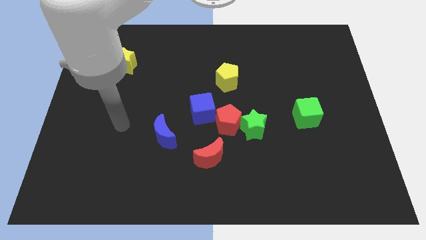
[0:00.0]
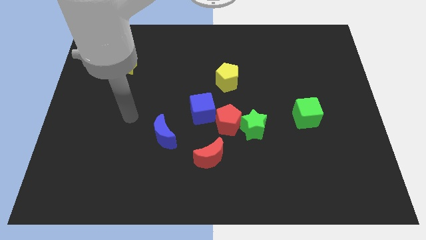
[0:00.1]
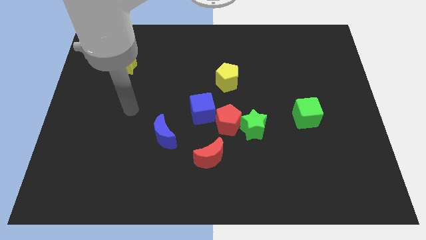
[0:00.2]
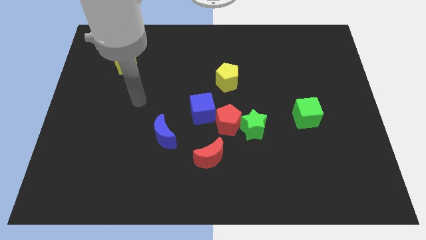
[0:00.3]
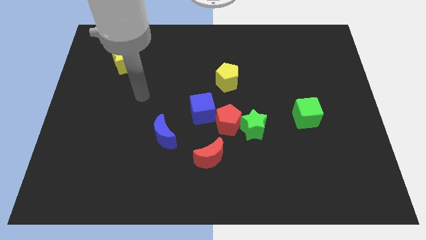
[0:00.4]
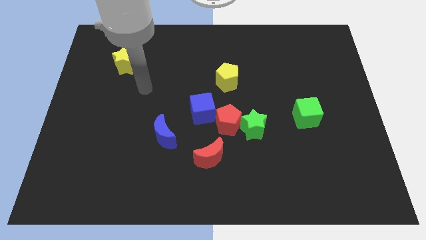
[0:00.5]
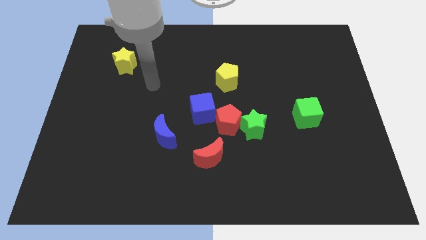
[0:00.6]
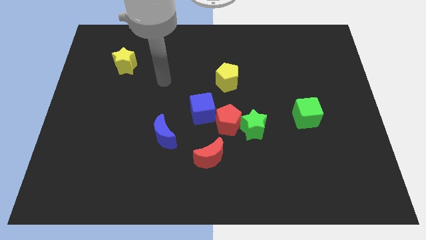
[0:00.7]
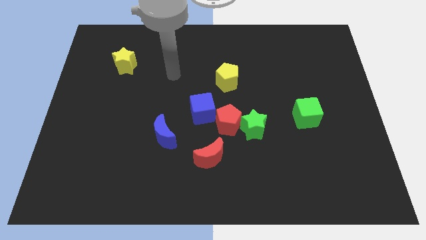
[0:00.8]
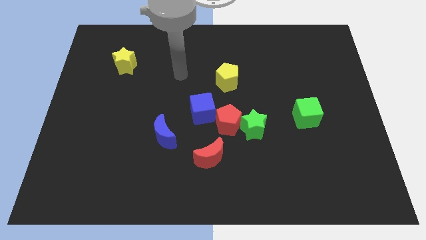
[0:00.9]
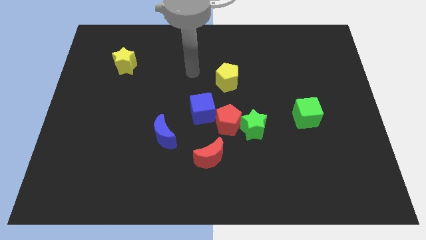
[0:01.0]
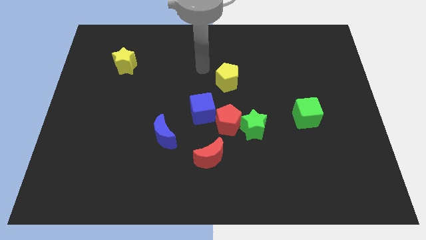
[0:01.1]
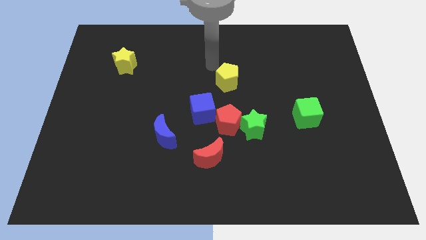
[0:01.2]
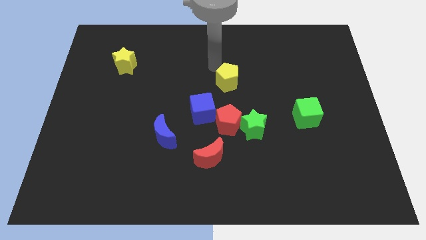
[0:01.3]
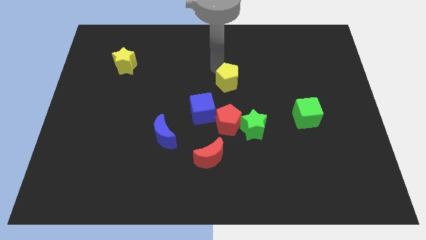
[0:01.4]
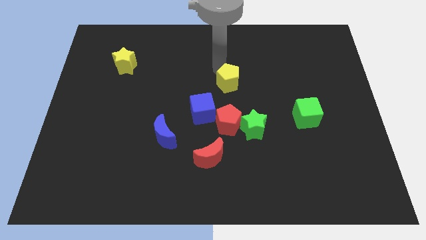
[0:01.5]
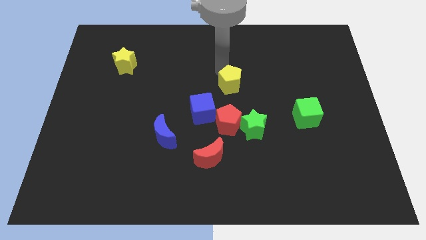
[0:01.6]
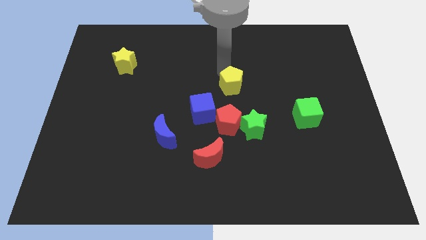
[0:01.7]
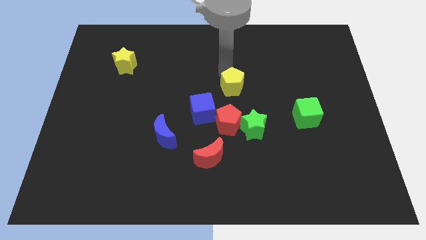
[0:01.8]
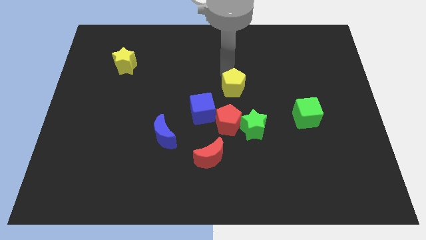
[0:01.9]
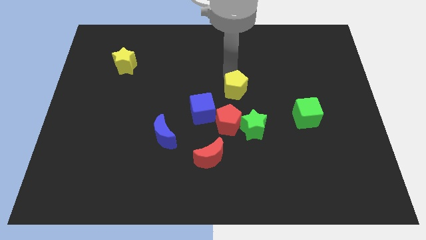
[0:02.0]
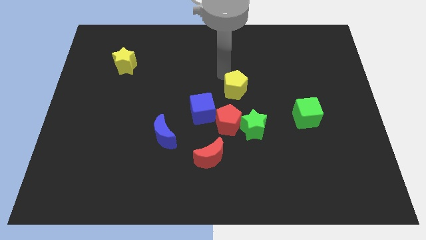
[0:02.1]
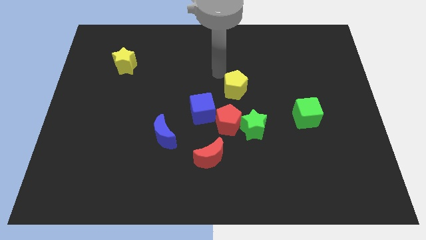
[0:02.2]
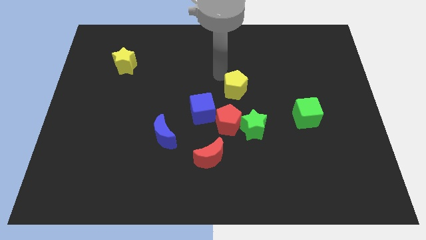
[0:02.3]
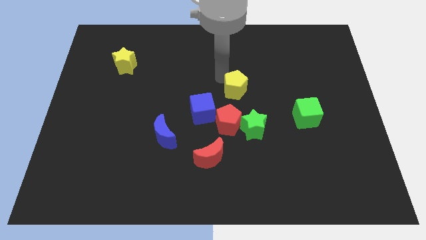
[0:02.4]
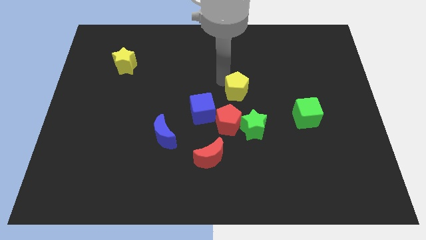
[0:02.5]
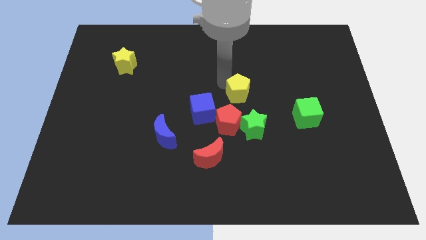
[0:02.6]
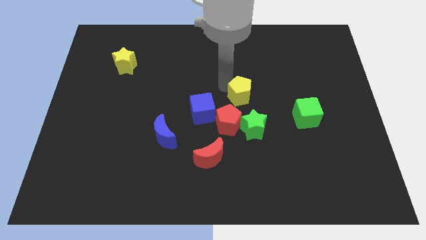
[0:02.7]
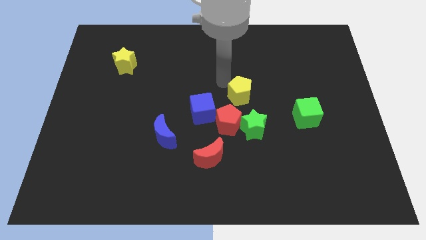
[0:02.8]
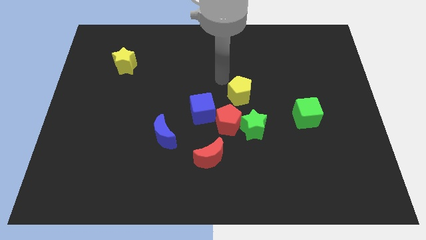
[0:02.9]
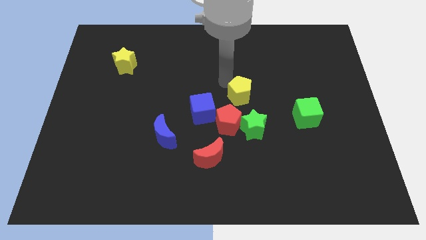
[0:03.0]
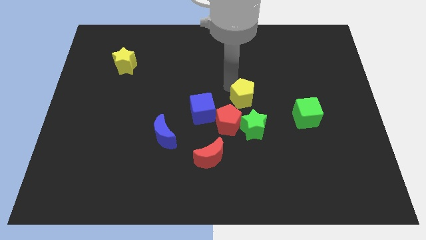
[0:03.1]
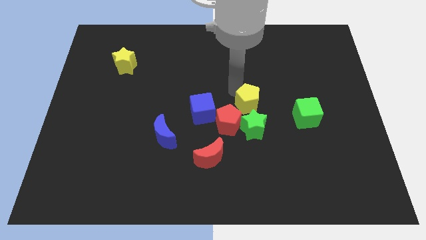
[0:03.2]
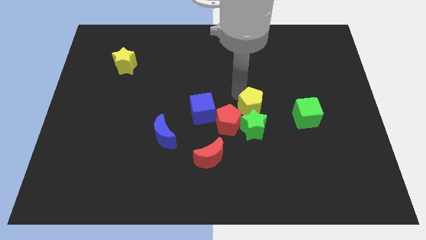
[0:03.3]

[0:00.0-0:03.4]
slide the yellow pentagon downwards a little bit

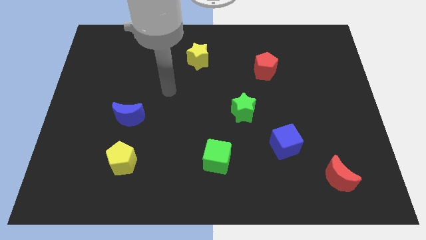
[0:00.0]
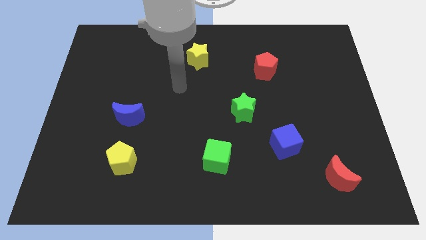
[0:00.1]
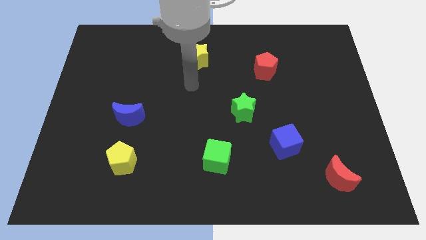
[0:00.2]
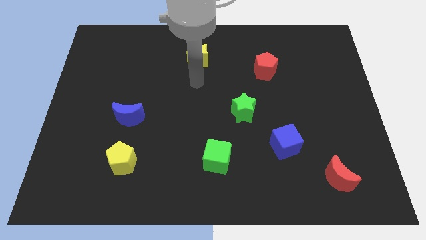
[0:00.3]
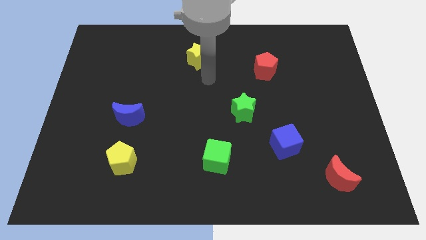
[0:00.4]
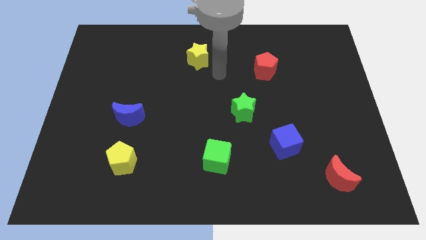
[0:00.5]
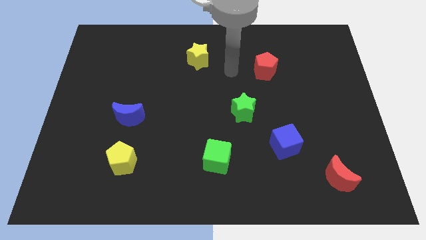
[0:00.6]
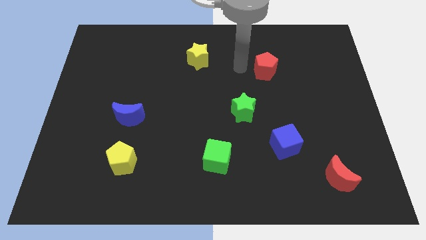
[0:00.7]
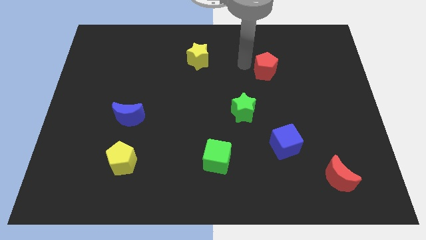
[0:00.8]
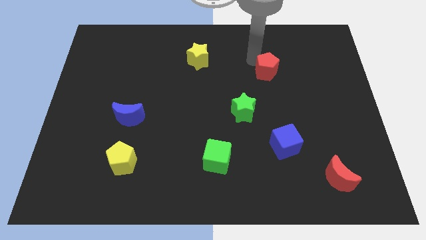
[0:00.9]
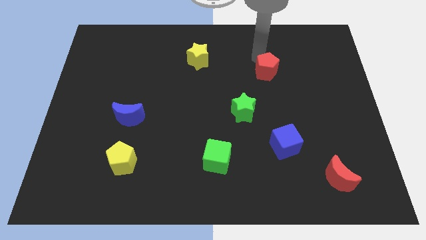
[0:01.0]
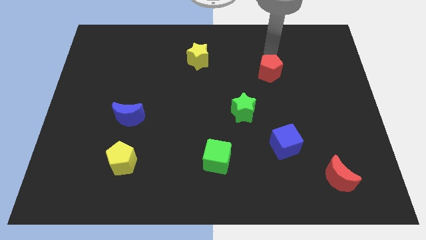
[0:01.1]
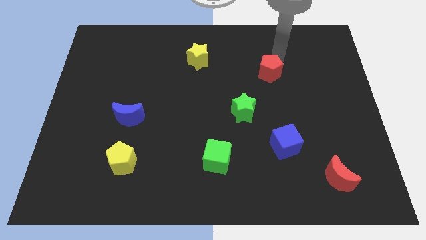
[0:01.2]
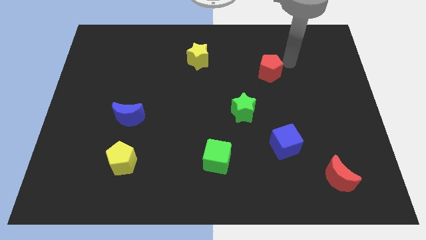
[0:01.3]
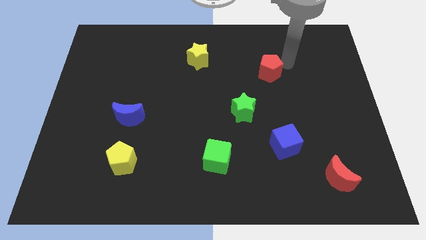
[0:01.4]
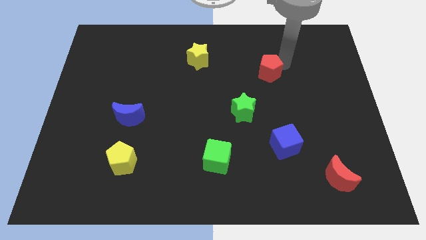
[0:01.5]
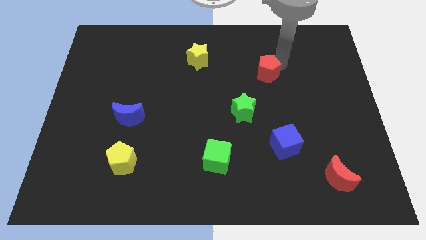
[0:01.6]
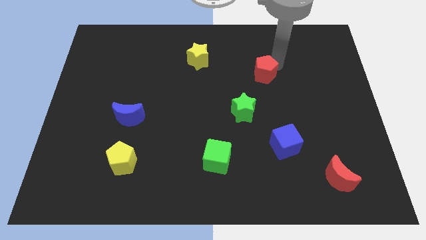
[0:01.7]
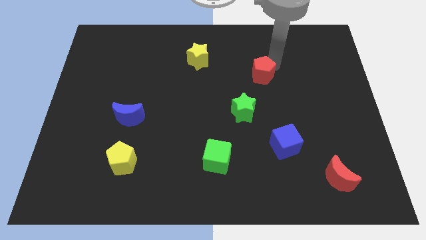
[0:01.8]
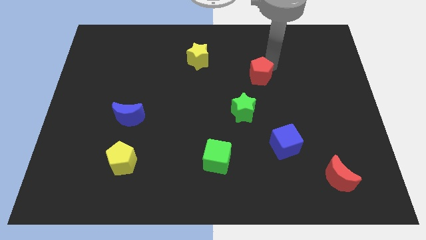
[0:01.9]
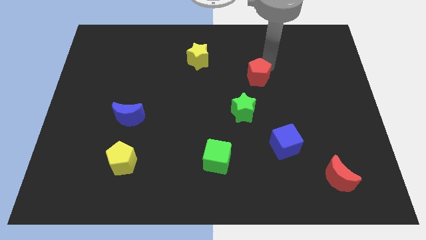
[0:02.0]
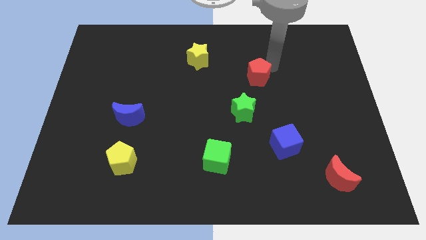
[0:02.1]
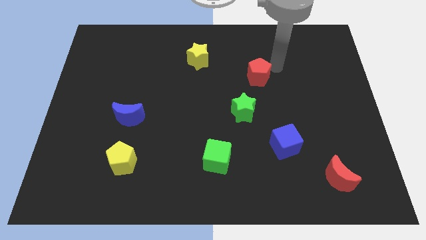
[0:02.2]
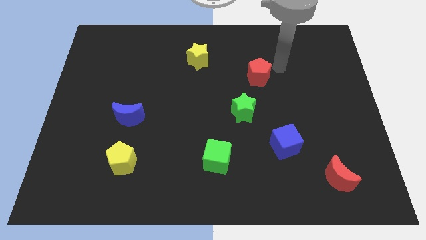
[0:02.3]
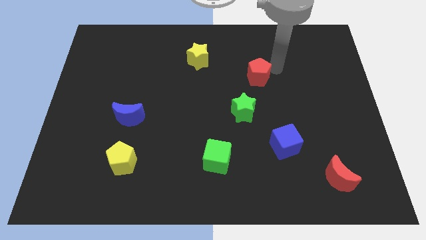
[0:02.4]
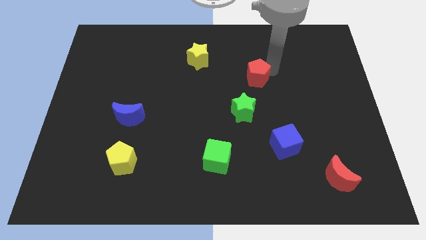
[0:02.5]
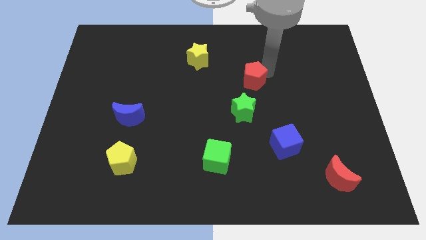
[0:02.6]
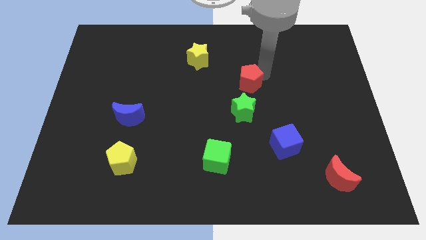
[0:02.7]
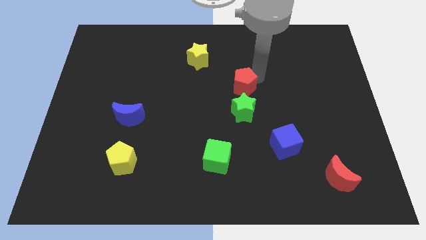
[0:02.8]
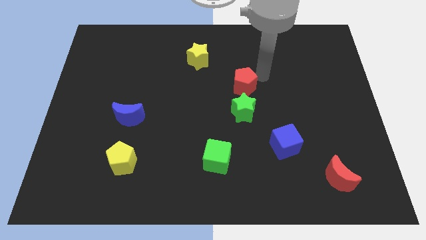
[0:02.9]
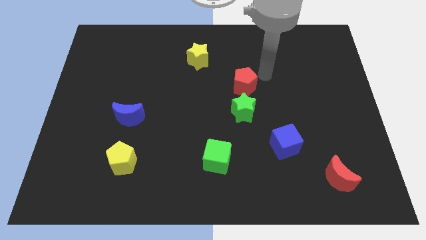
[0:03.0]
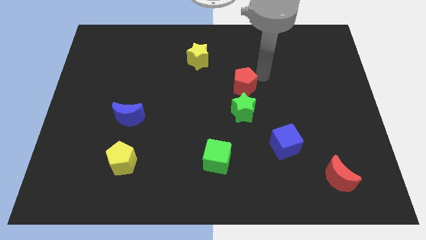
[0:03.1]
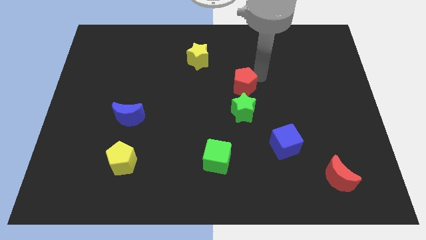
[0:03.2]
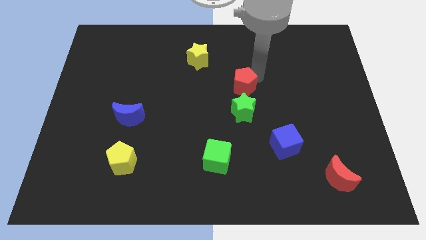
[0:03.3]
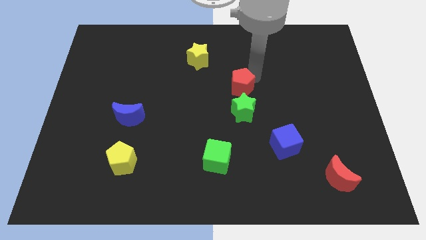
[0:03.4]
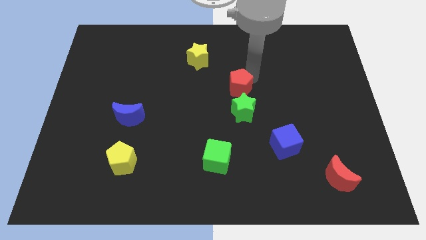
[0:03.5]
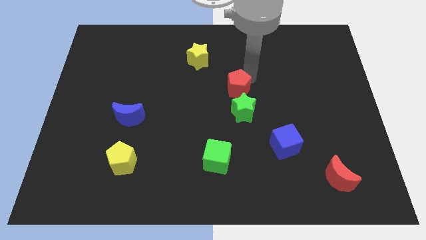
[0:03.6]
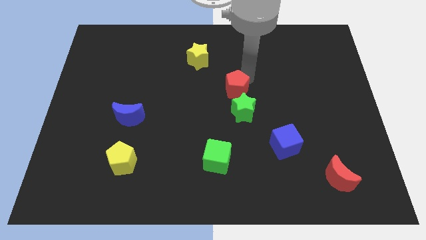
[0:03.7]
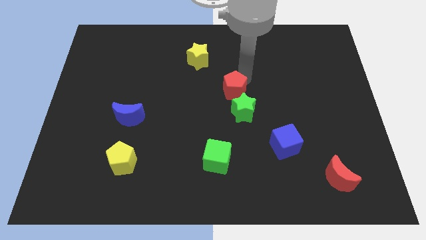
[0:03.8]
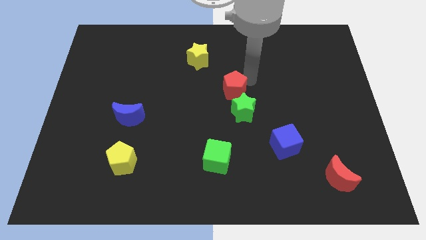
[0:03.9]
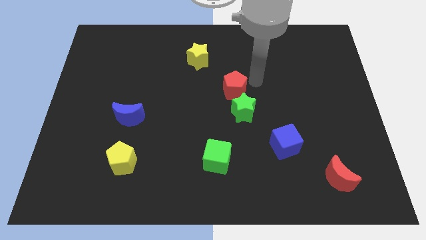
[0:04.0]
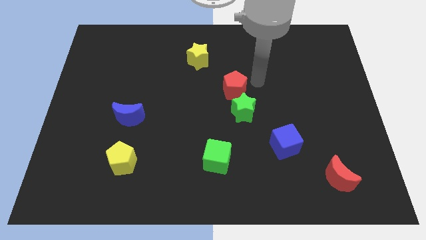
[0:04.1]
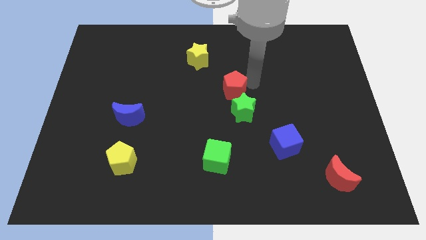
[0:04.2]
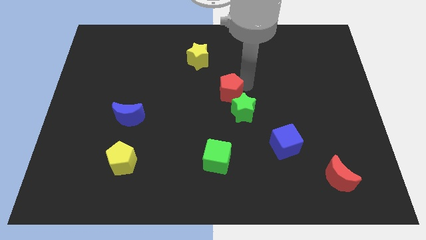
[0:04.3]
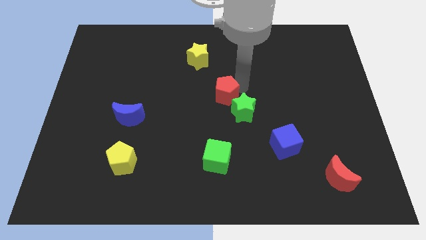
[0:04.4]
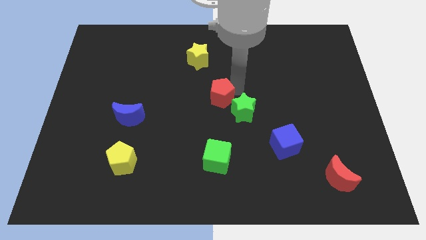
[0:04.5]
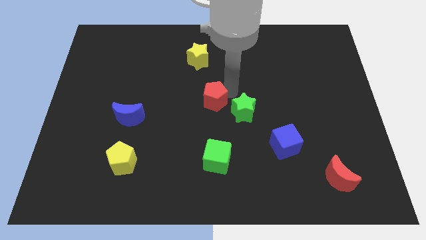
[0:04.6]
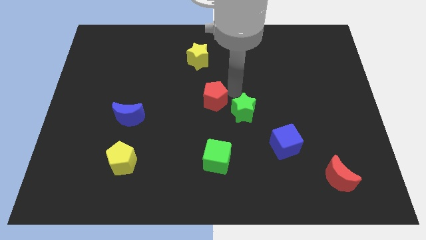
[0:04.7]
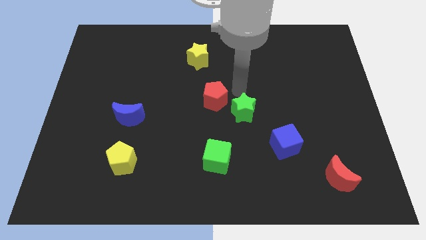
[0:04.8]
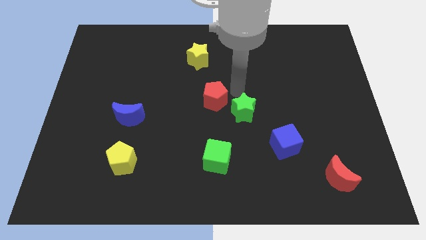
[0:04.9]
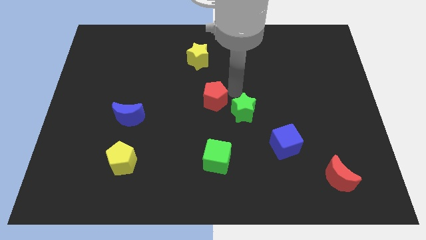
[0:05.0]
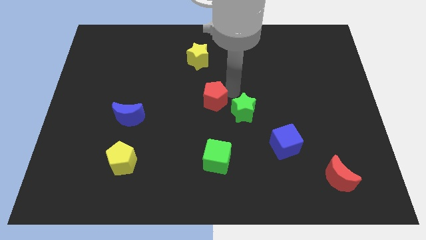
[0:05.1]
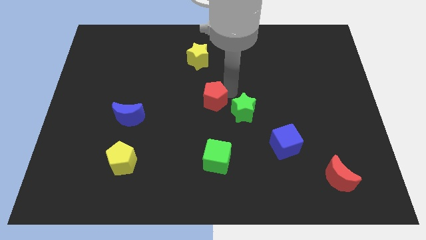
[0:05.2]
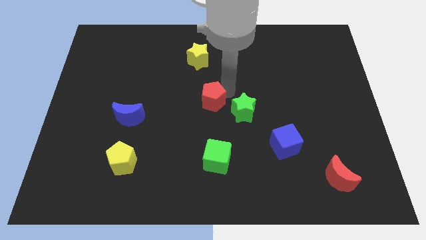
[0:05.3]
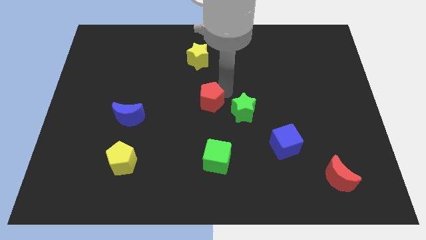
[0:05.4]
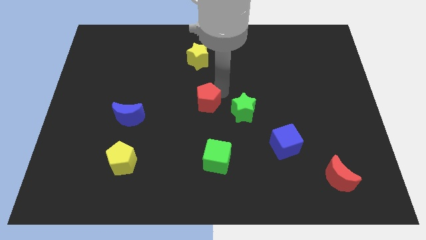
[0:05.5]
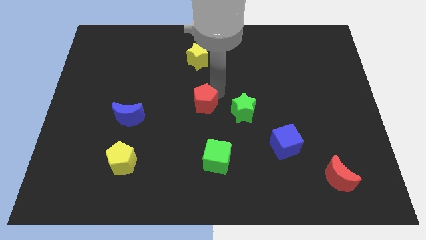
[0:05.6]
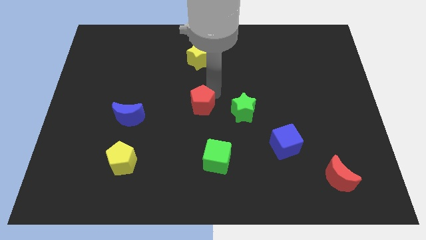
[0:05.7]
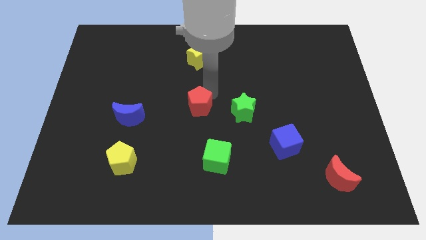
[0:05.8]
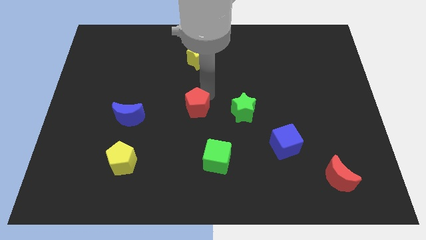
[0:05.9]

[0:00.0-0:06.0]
push the red pentagon downwards and to the left diagonally
